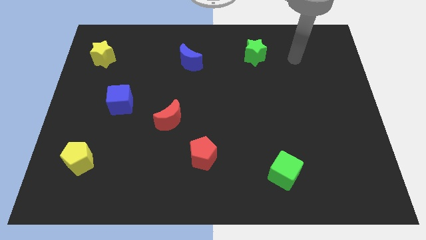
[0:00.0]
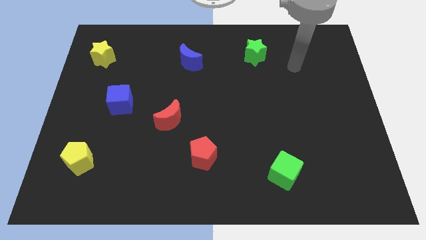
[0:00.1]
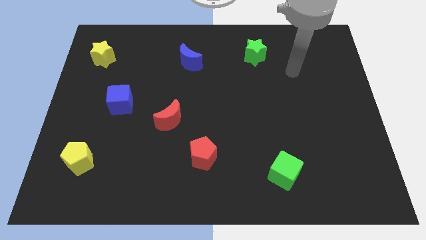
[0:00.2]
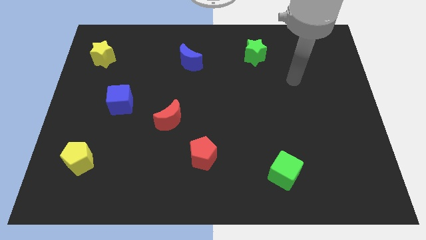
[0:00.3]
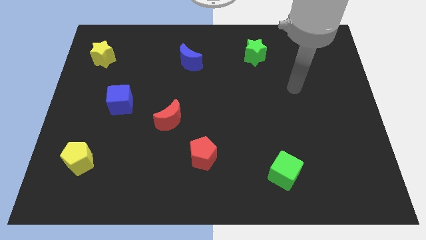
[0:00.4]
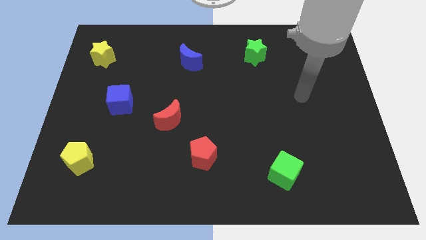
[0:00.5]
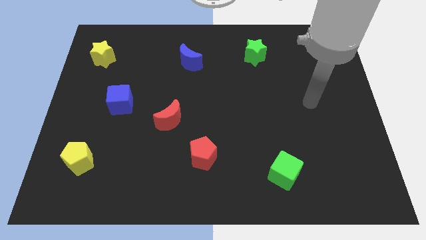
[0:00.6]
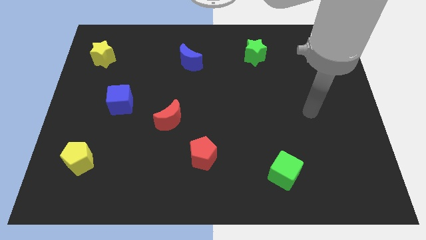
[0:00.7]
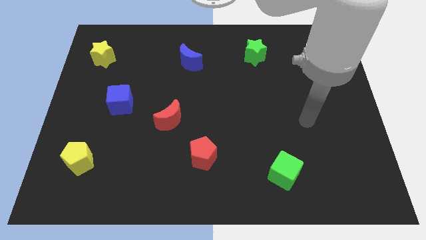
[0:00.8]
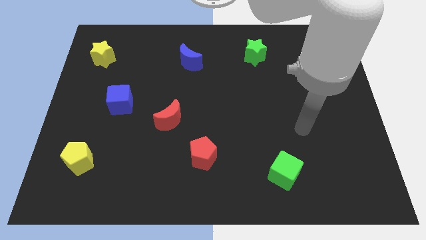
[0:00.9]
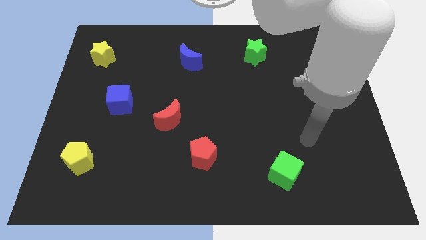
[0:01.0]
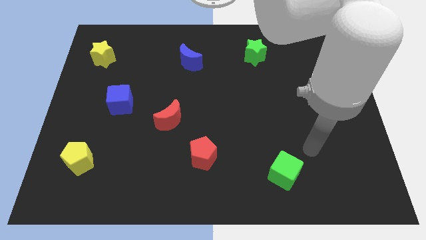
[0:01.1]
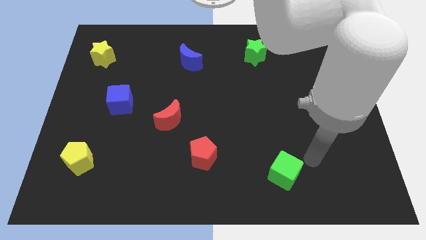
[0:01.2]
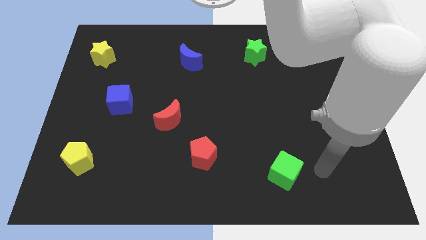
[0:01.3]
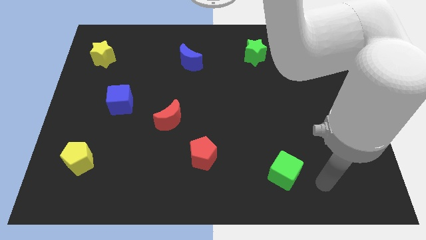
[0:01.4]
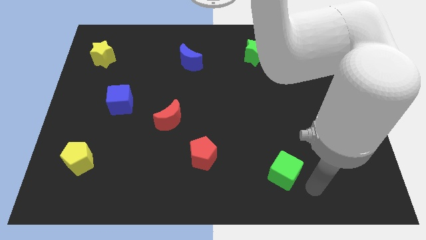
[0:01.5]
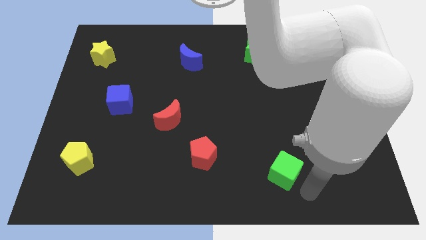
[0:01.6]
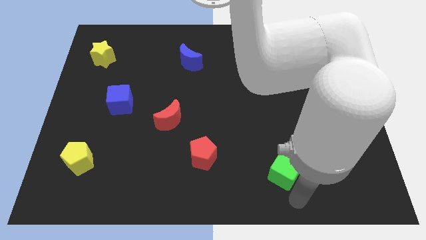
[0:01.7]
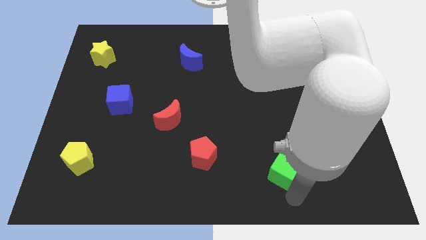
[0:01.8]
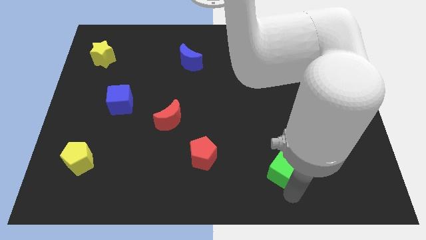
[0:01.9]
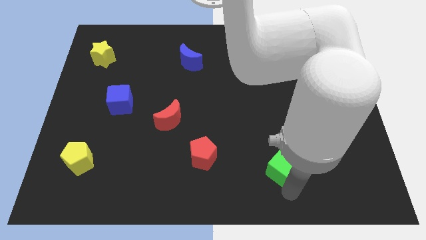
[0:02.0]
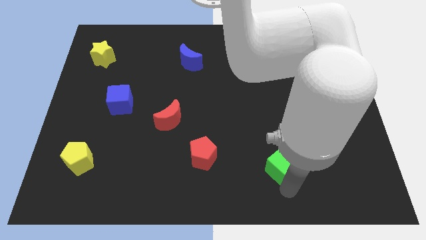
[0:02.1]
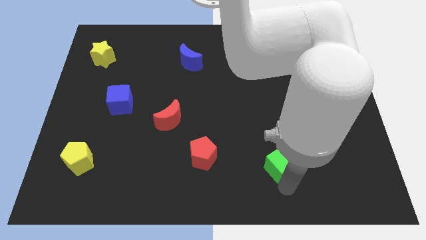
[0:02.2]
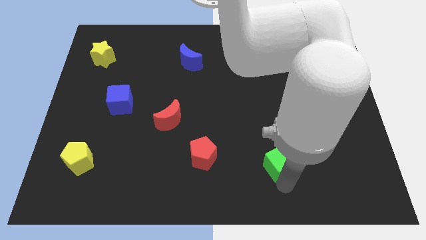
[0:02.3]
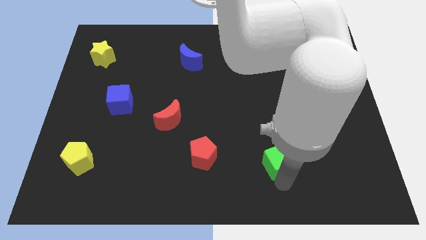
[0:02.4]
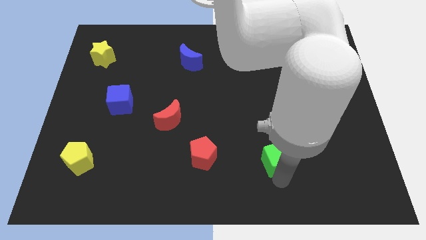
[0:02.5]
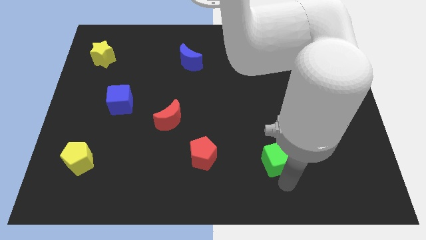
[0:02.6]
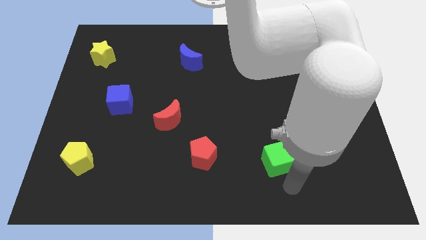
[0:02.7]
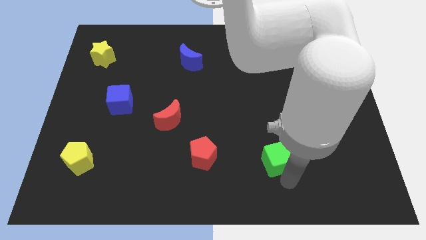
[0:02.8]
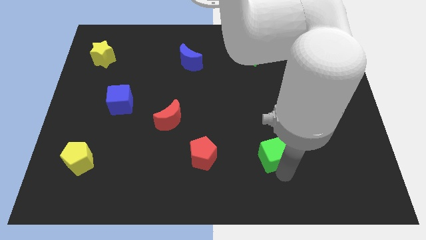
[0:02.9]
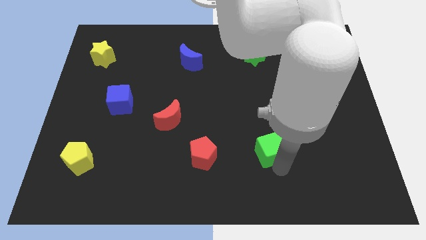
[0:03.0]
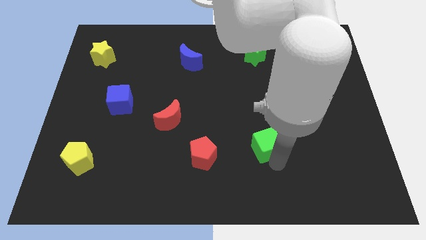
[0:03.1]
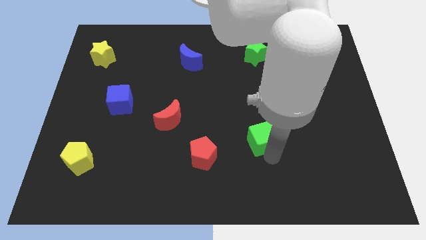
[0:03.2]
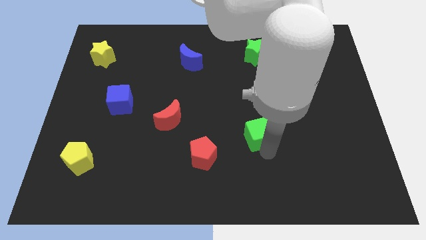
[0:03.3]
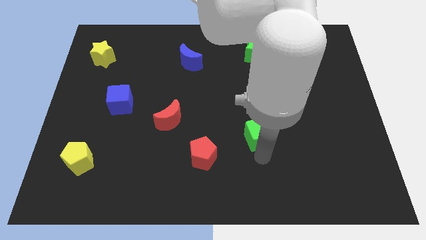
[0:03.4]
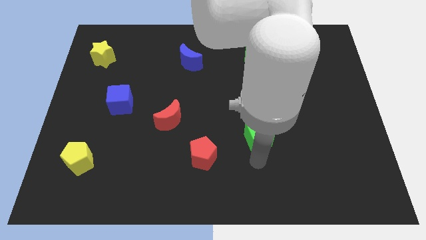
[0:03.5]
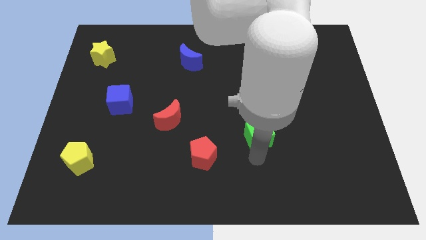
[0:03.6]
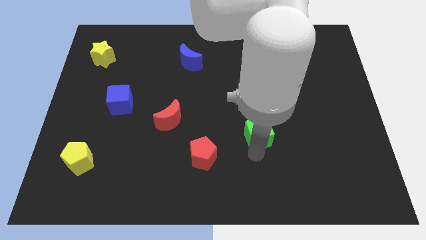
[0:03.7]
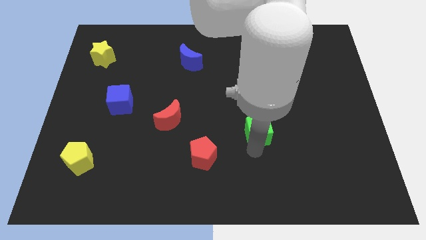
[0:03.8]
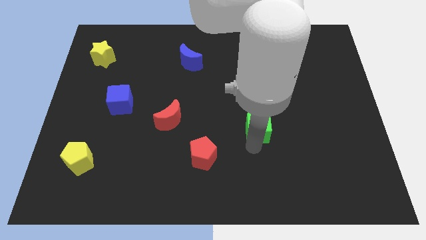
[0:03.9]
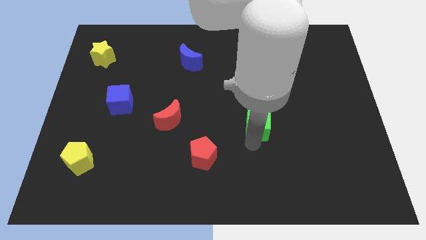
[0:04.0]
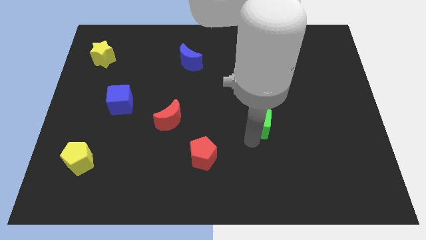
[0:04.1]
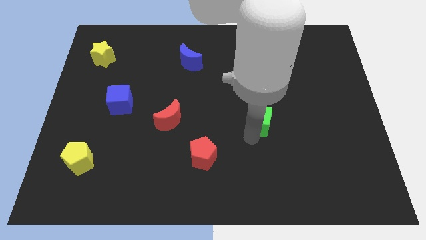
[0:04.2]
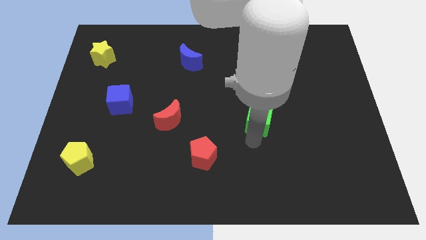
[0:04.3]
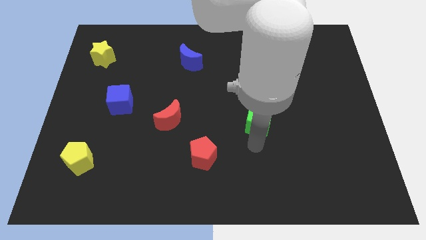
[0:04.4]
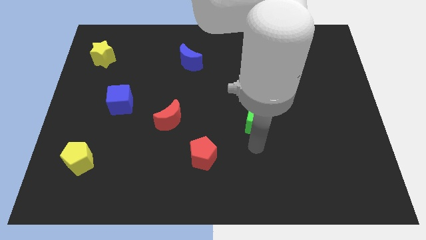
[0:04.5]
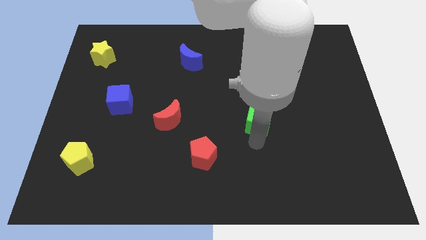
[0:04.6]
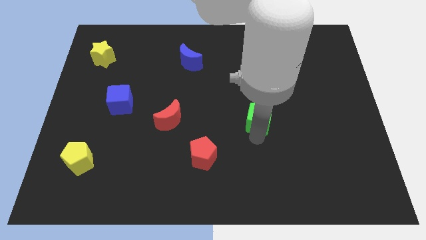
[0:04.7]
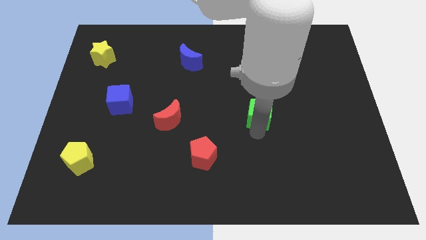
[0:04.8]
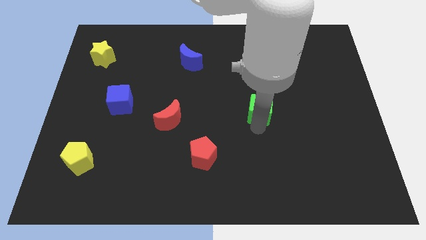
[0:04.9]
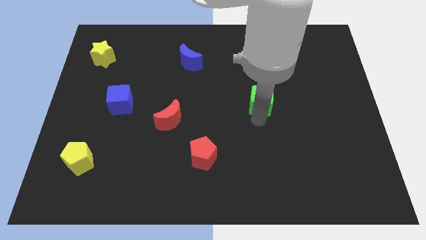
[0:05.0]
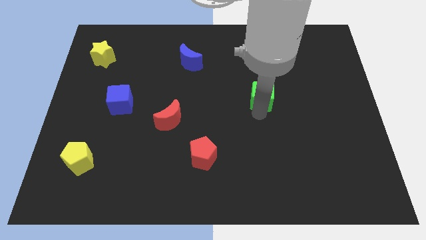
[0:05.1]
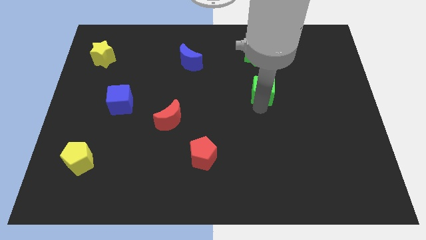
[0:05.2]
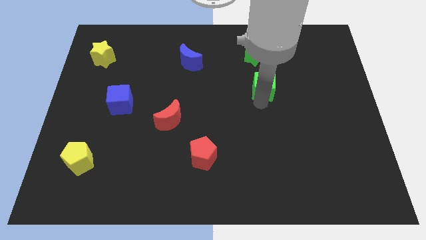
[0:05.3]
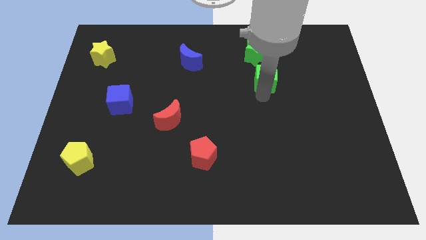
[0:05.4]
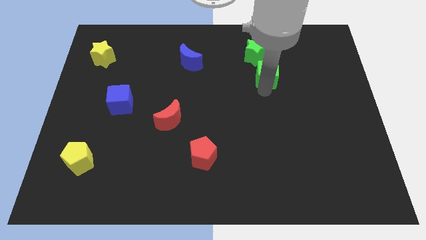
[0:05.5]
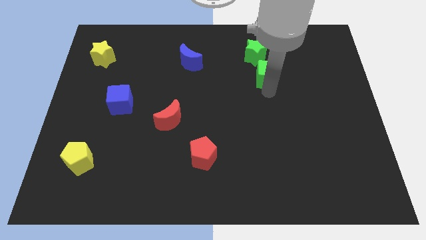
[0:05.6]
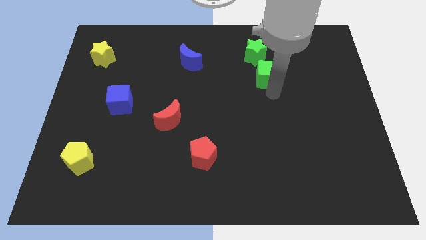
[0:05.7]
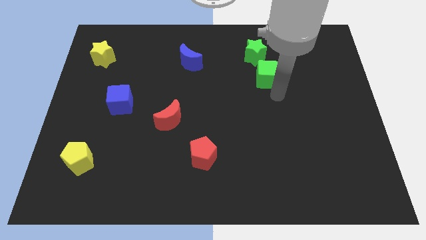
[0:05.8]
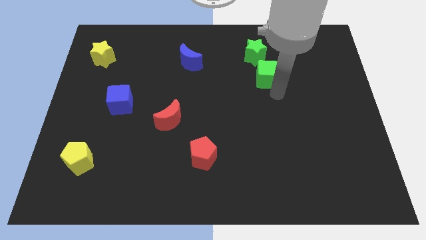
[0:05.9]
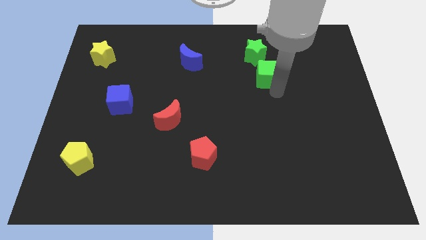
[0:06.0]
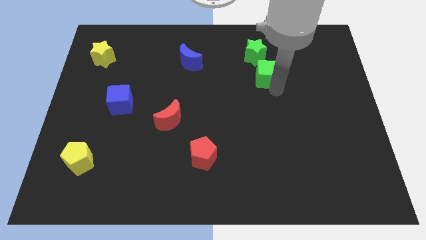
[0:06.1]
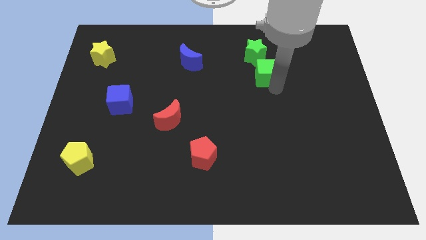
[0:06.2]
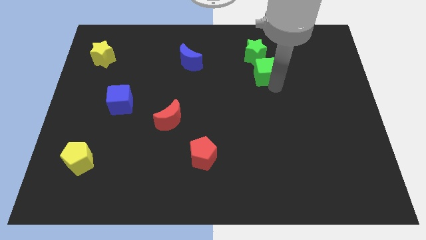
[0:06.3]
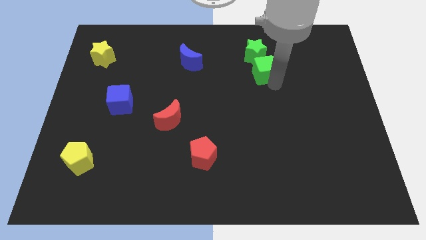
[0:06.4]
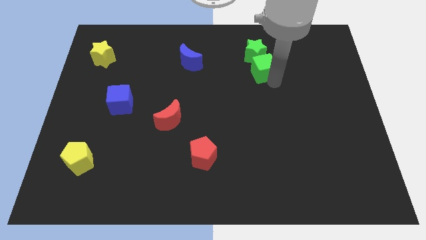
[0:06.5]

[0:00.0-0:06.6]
move the green cube towards the green star

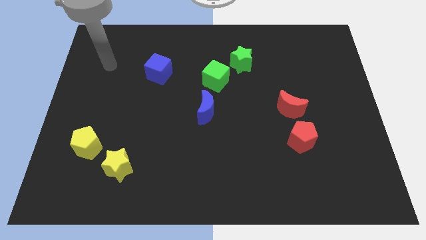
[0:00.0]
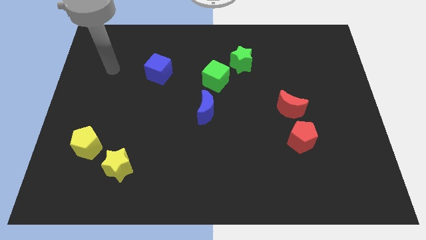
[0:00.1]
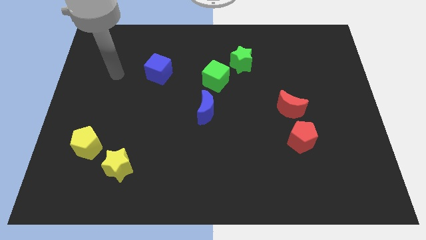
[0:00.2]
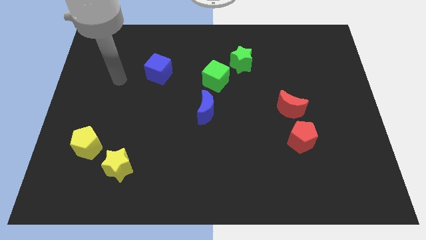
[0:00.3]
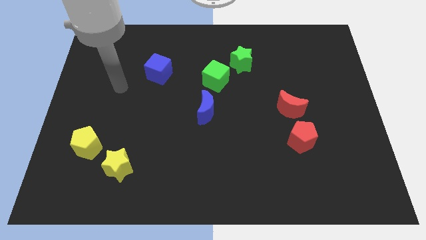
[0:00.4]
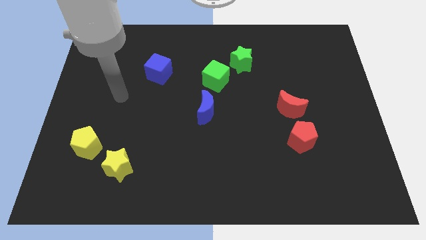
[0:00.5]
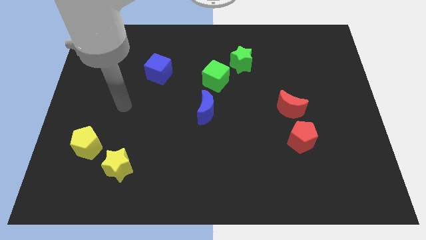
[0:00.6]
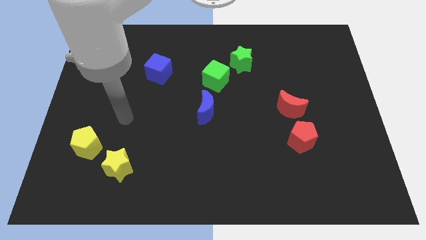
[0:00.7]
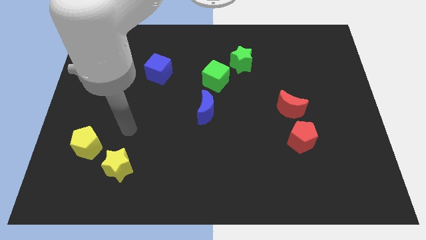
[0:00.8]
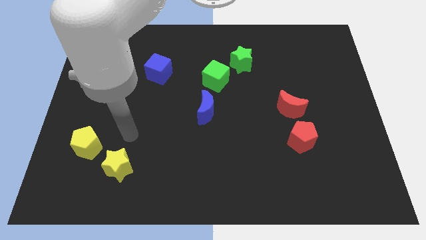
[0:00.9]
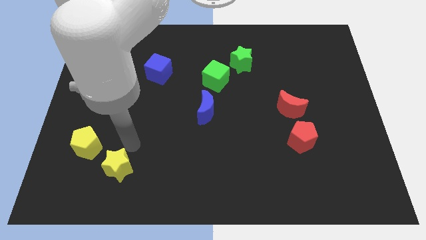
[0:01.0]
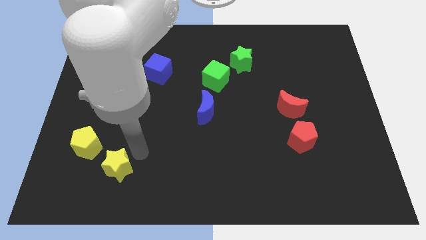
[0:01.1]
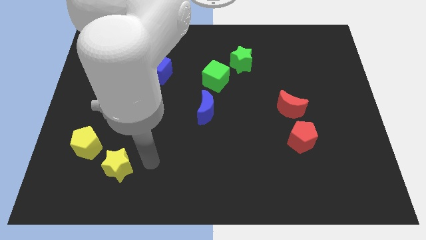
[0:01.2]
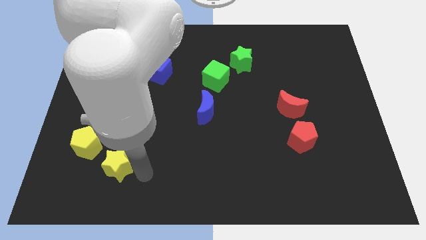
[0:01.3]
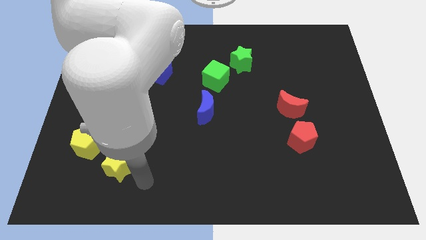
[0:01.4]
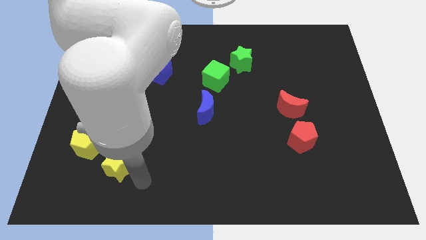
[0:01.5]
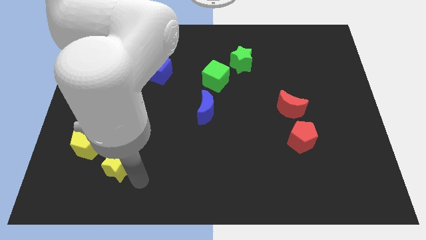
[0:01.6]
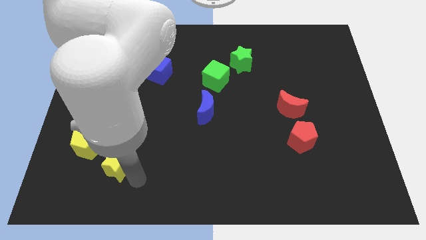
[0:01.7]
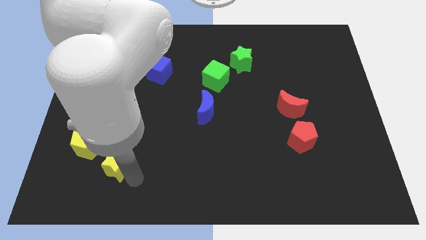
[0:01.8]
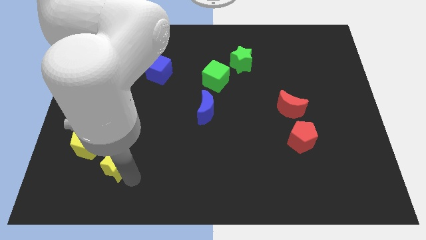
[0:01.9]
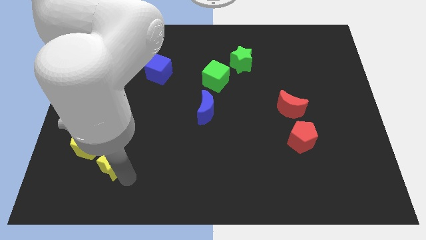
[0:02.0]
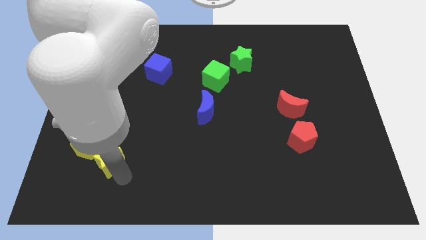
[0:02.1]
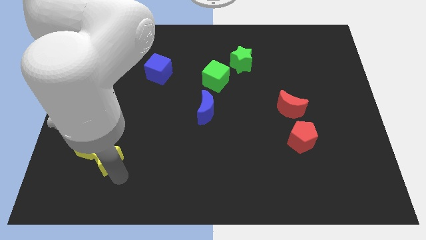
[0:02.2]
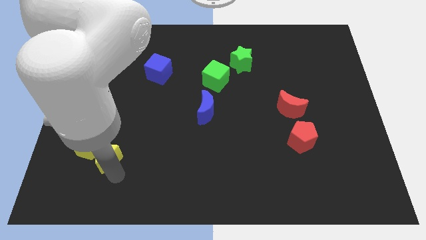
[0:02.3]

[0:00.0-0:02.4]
slide the yellow star close to the yellow pentagon
